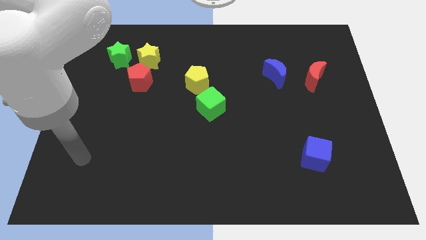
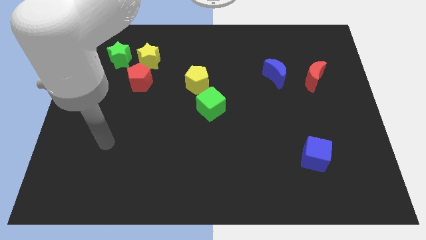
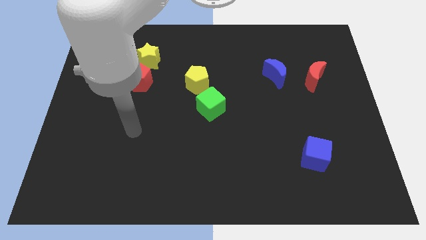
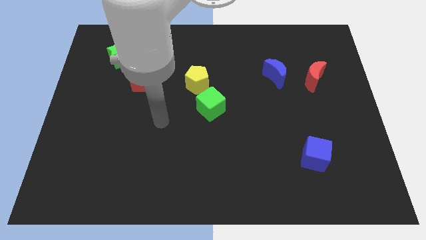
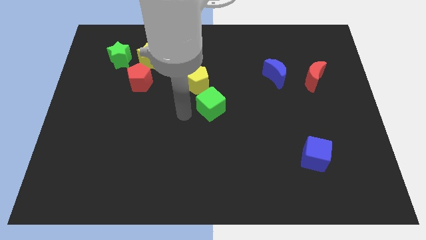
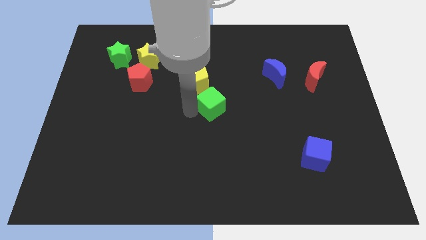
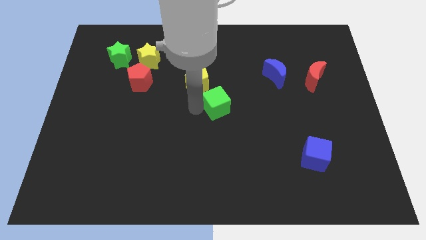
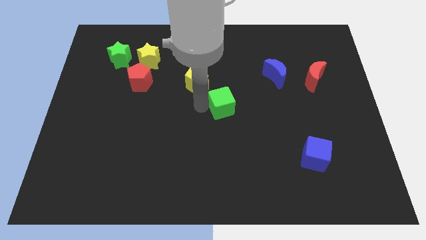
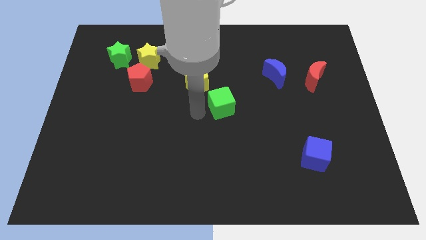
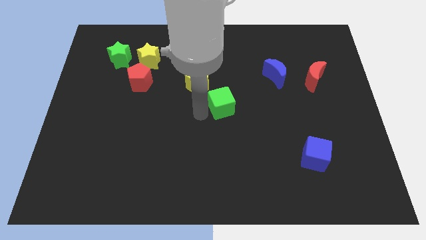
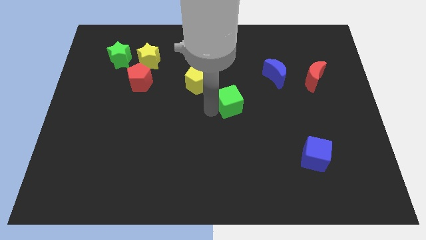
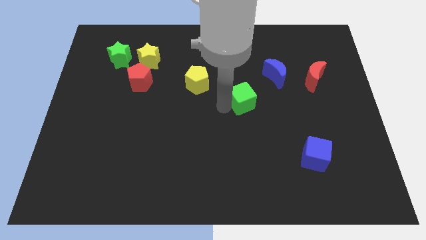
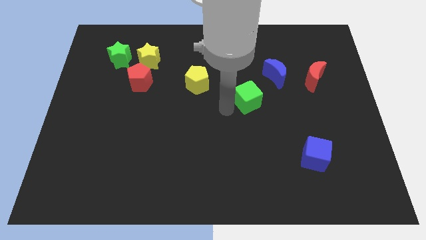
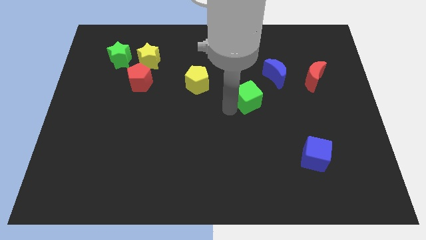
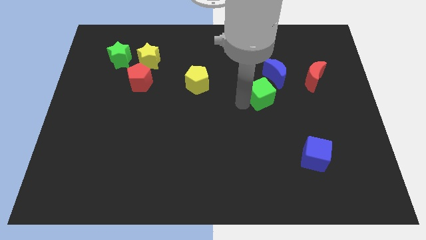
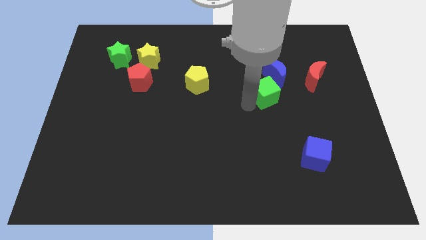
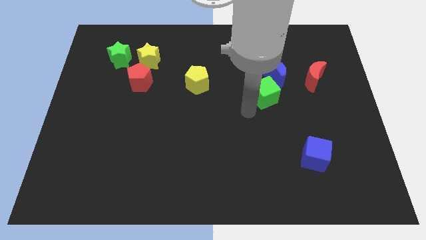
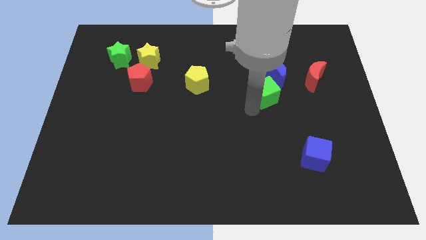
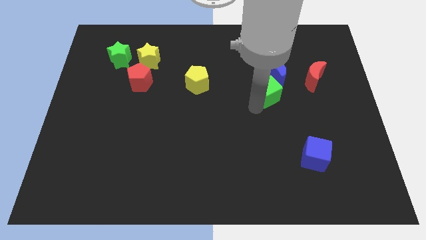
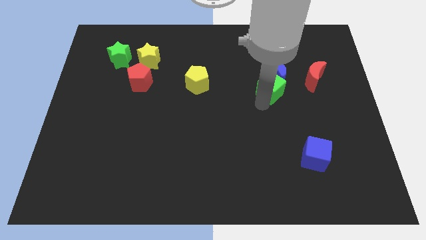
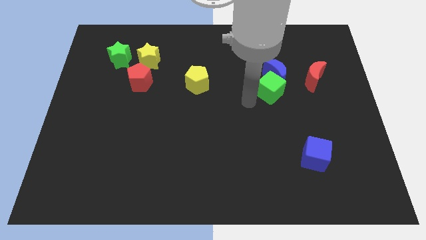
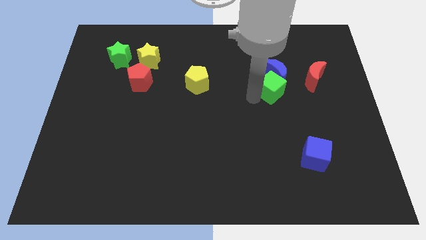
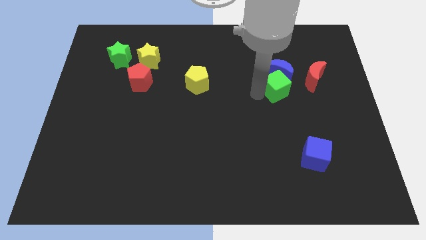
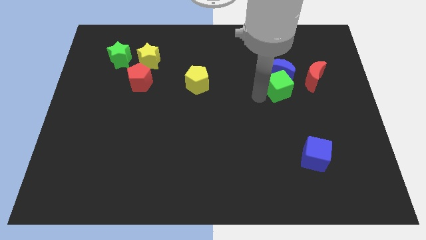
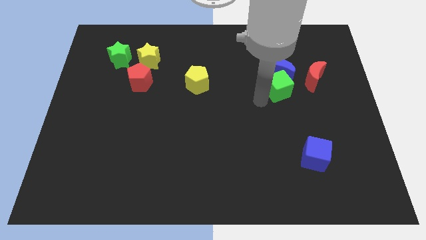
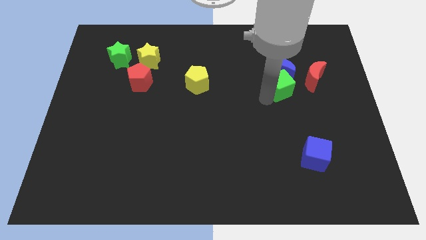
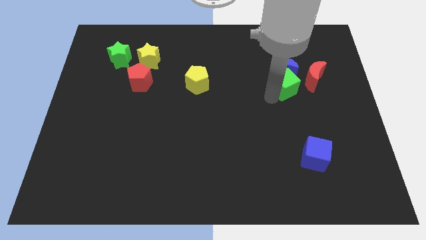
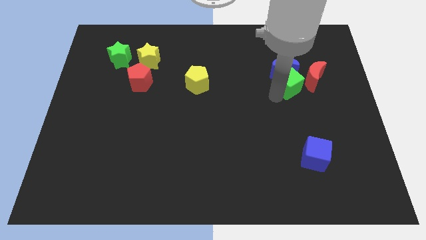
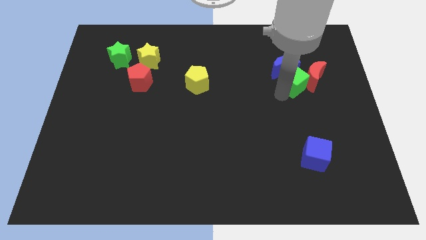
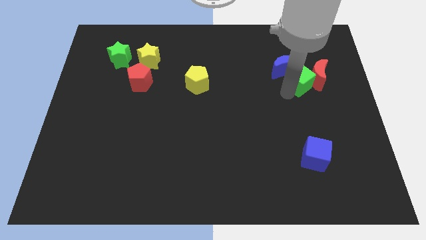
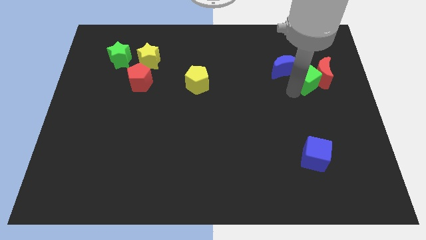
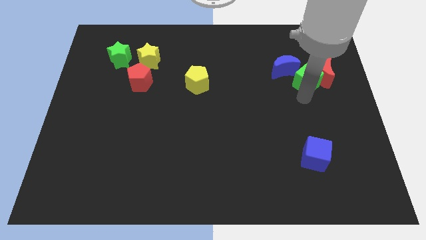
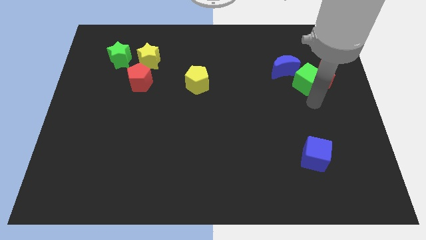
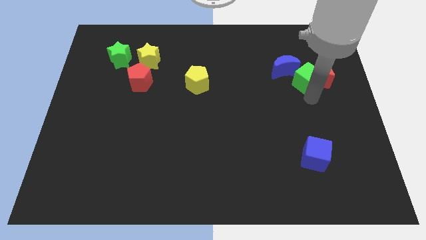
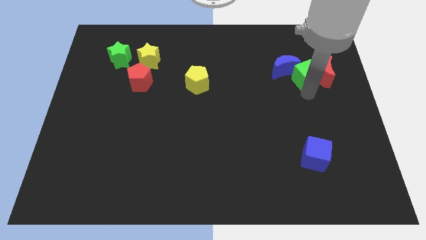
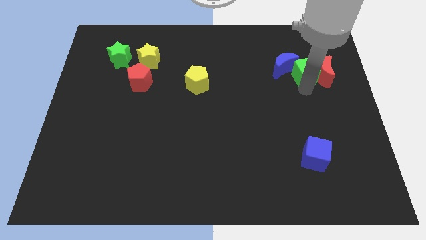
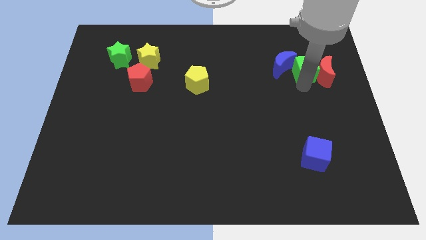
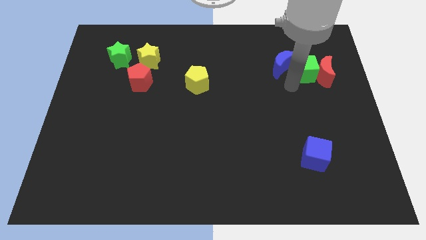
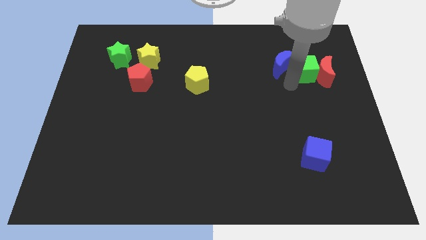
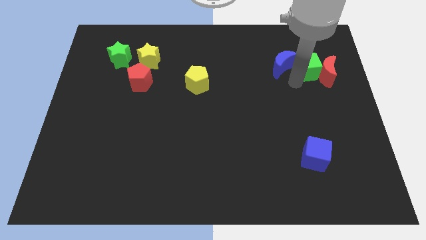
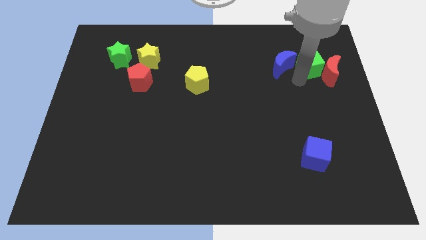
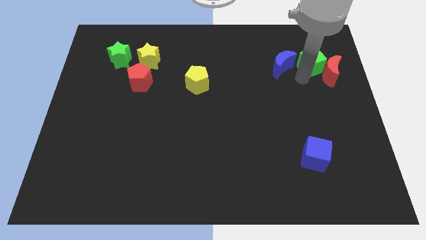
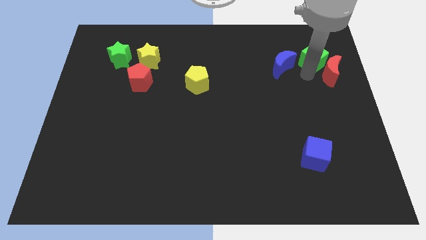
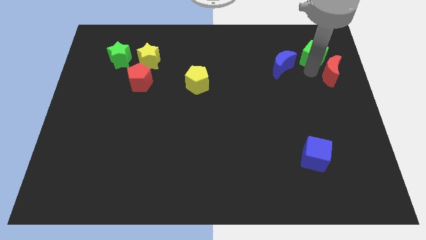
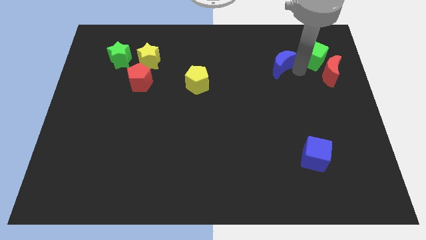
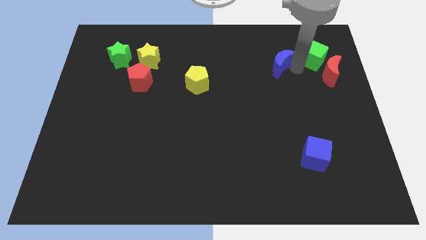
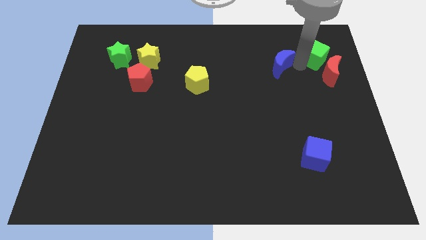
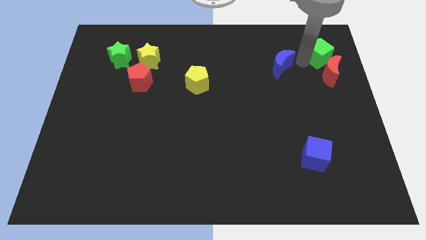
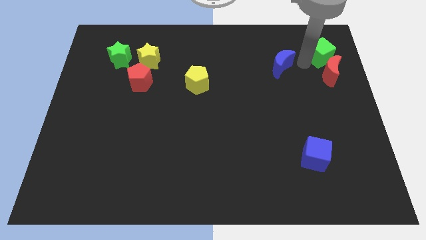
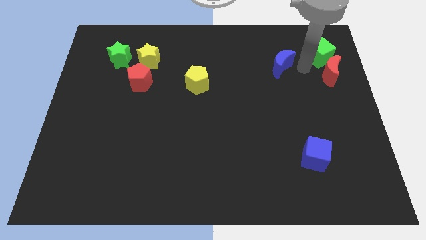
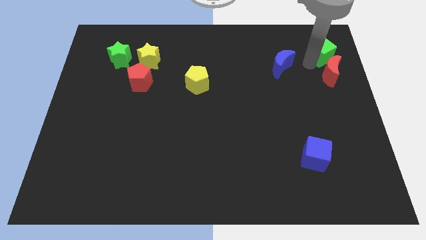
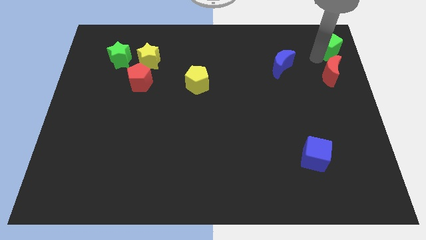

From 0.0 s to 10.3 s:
put the green cube to the upper right corner

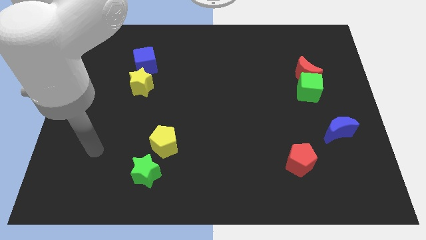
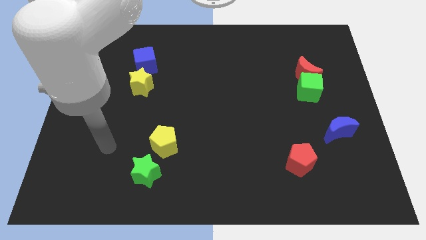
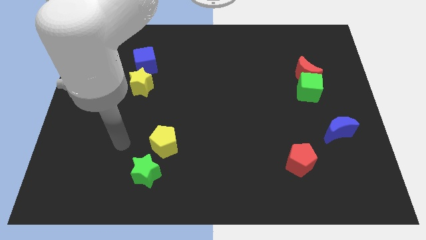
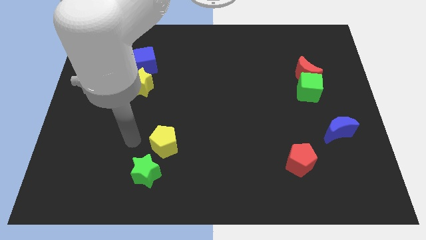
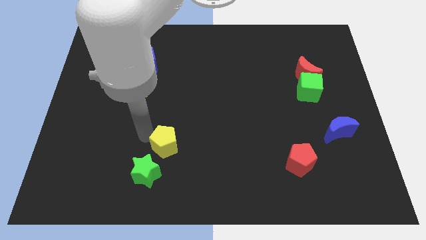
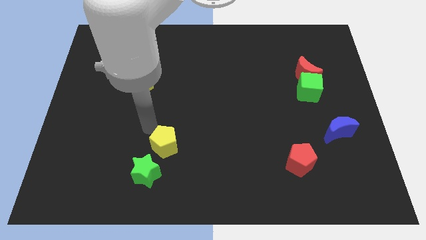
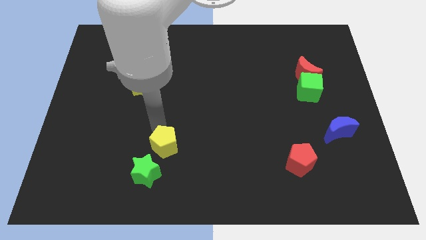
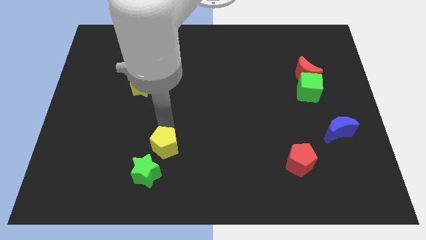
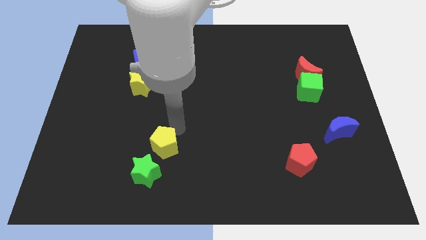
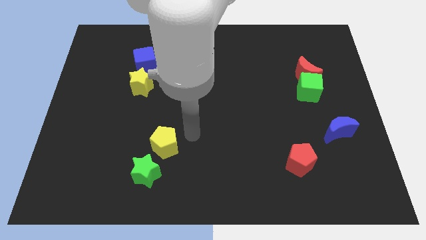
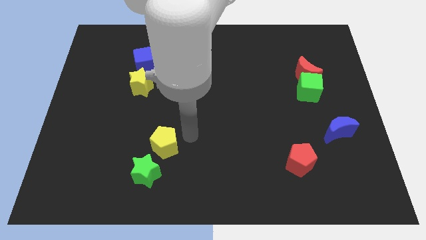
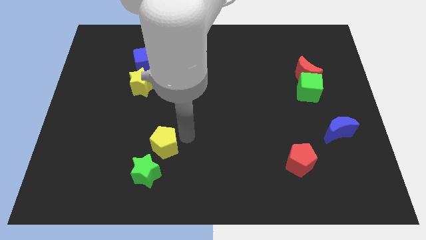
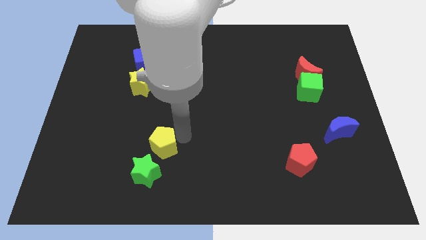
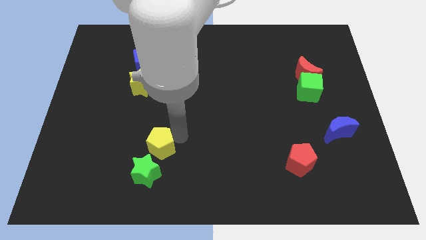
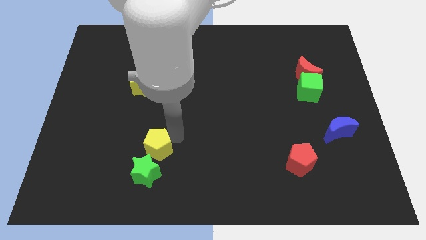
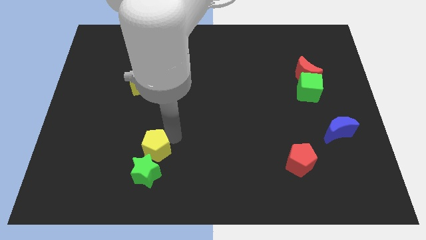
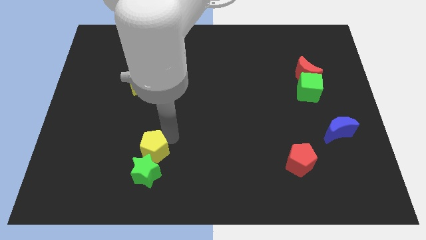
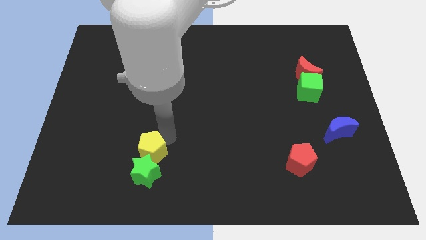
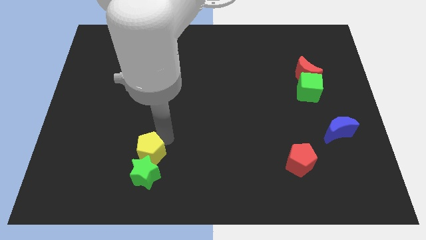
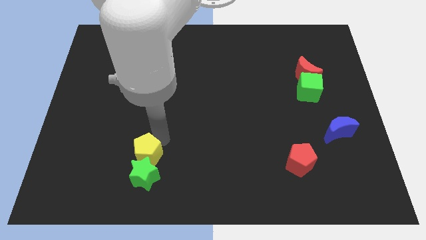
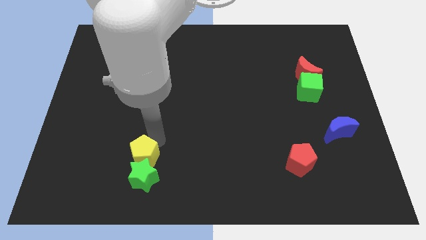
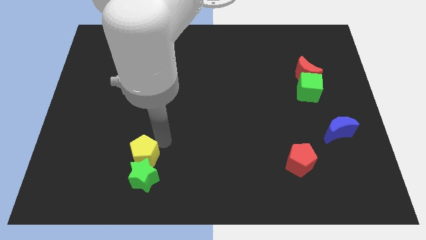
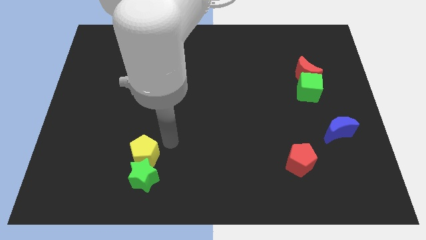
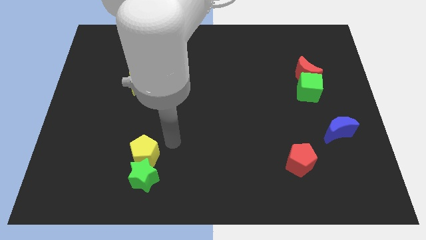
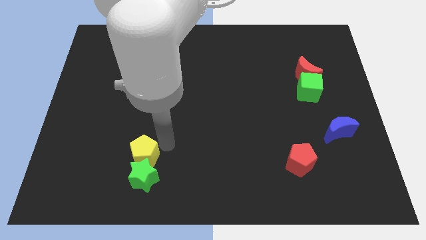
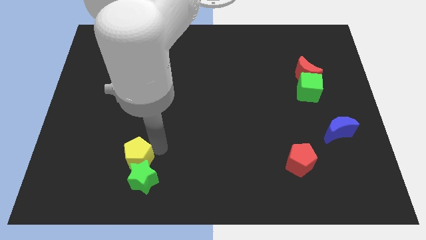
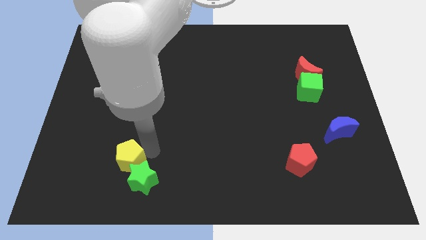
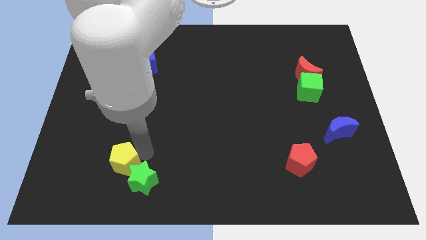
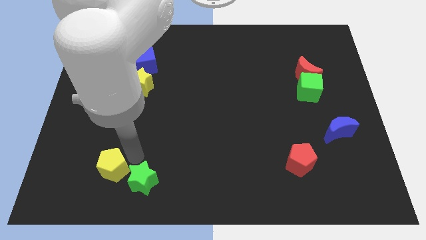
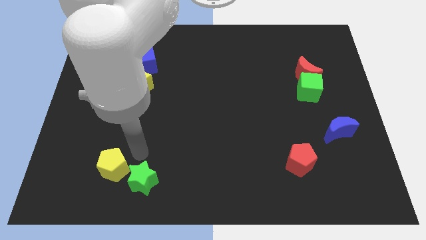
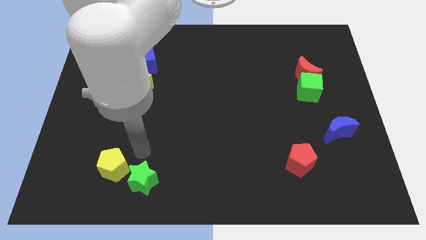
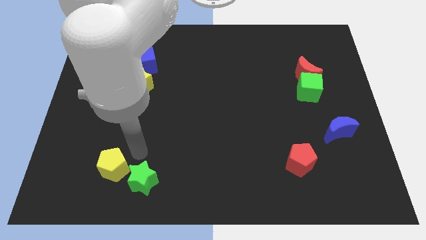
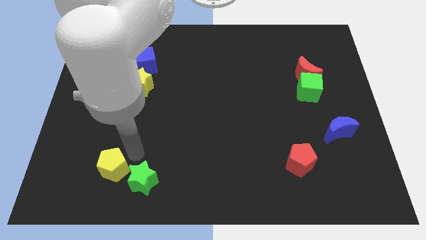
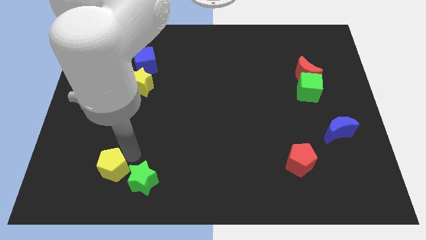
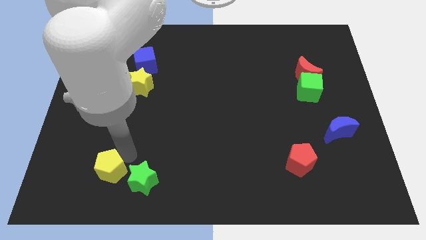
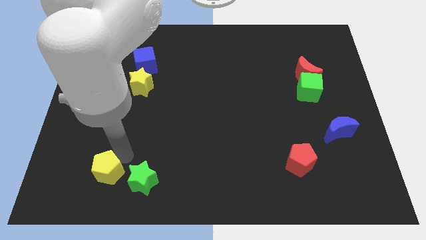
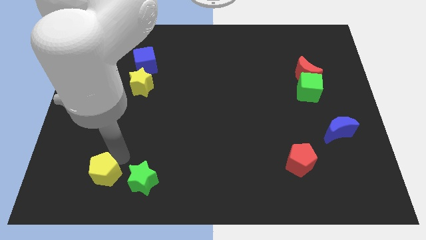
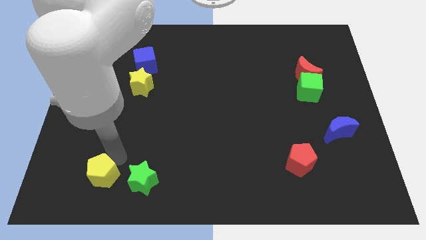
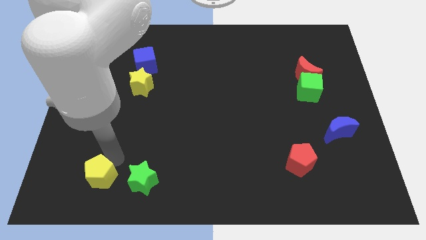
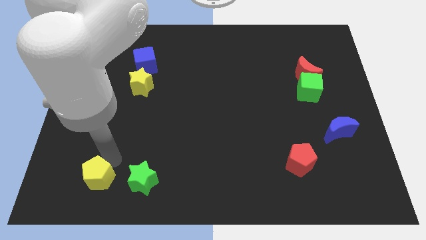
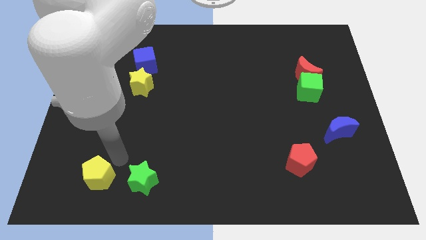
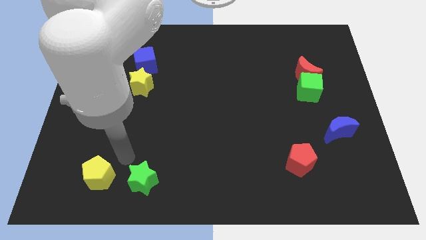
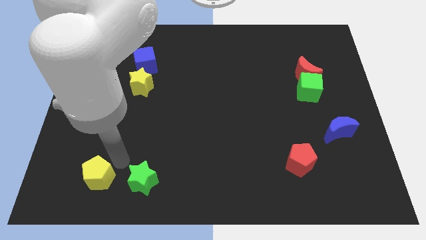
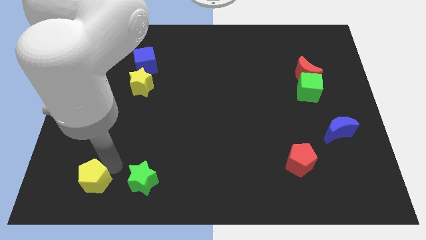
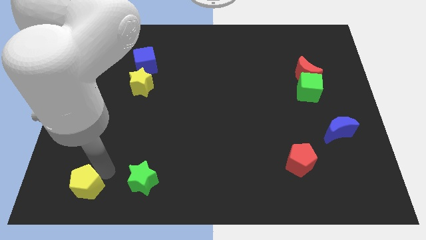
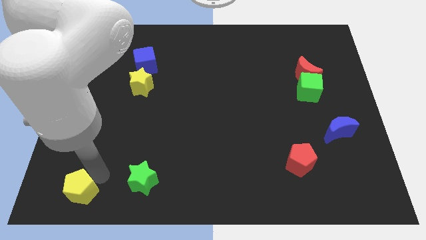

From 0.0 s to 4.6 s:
put the yellow pentagon to the bottom left
